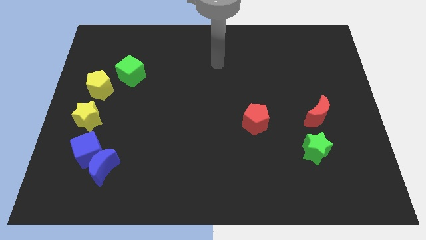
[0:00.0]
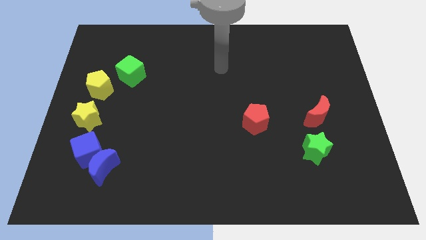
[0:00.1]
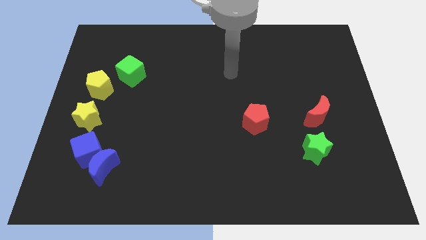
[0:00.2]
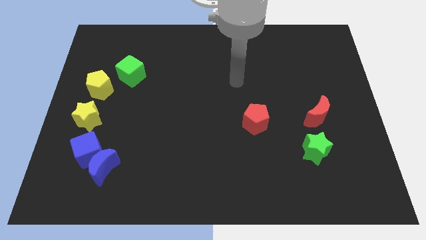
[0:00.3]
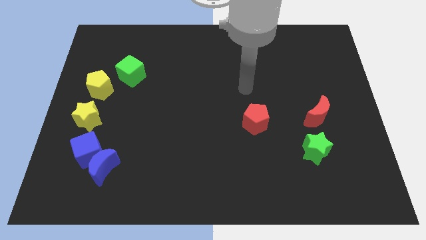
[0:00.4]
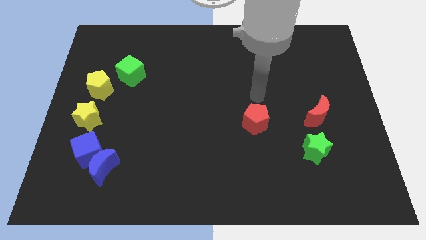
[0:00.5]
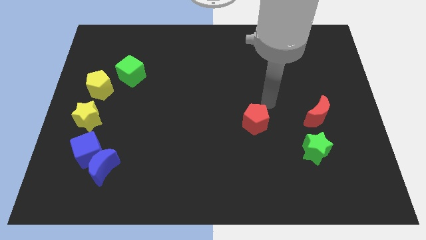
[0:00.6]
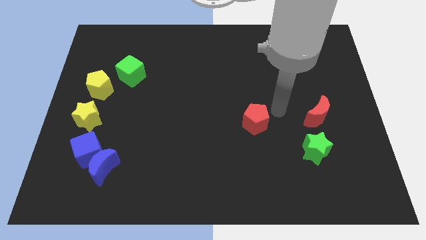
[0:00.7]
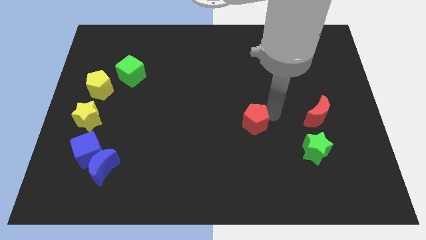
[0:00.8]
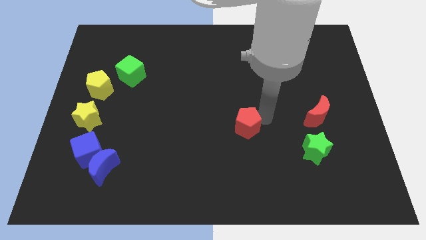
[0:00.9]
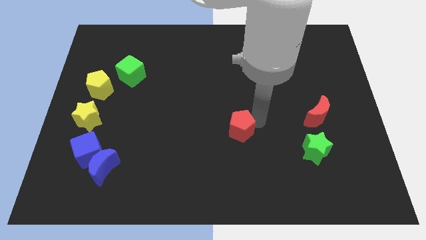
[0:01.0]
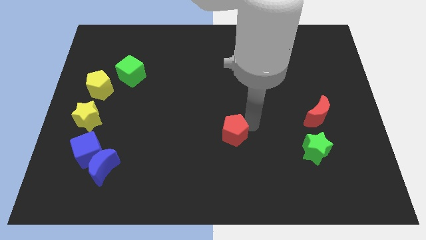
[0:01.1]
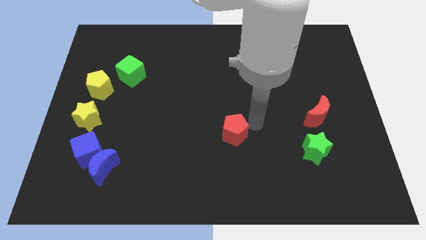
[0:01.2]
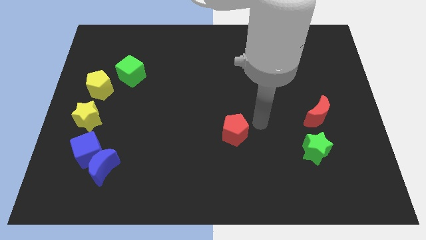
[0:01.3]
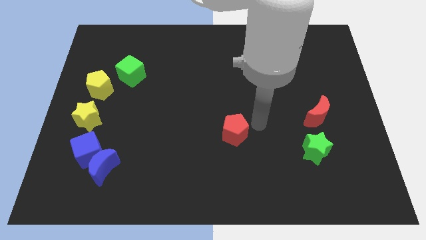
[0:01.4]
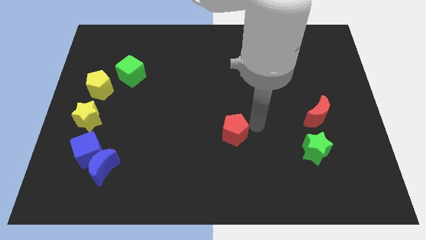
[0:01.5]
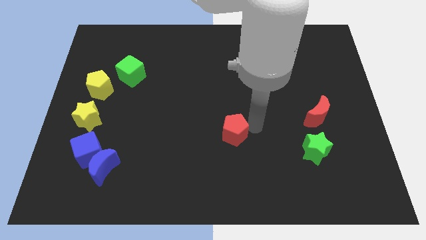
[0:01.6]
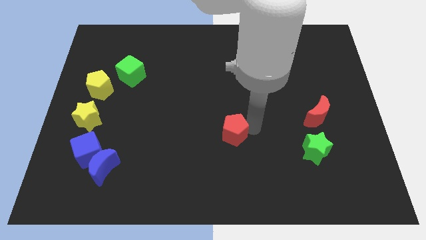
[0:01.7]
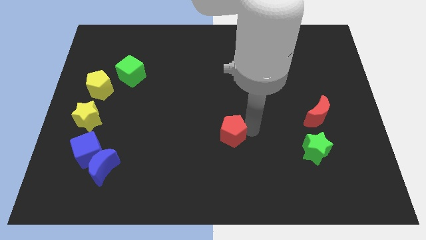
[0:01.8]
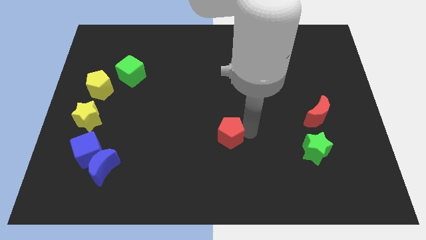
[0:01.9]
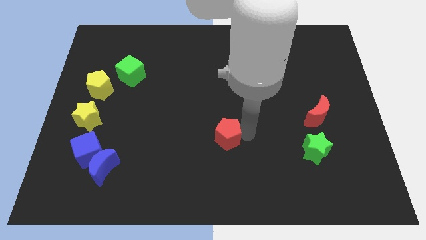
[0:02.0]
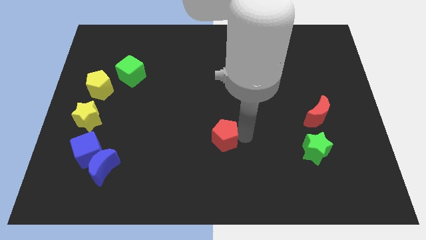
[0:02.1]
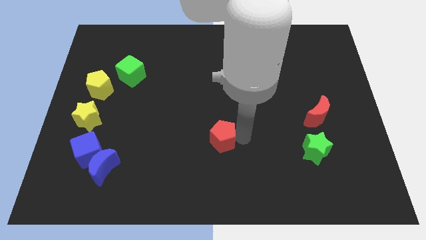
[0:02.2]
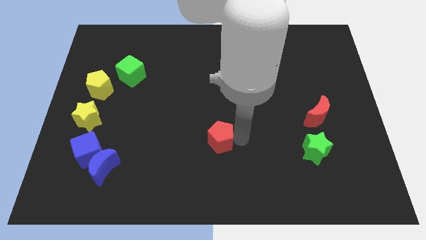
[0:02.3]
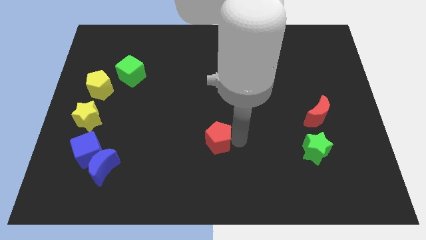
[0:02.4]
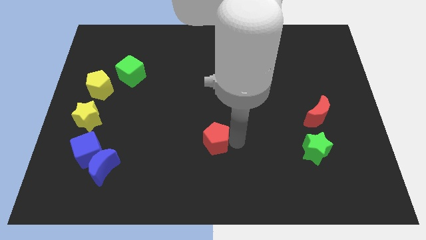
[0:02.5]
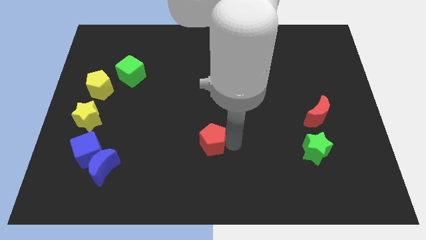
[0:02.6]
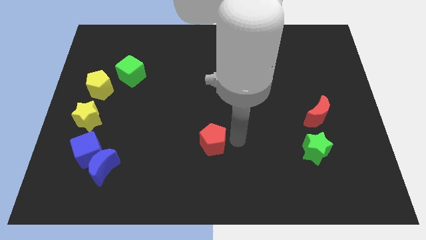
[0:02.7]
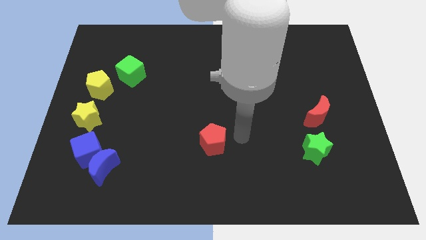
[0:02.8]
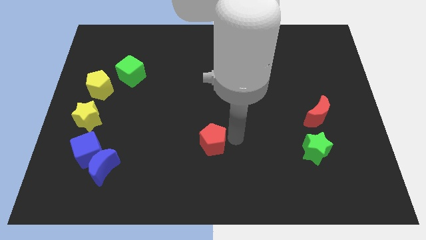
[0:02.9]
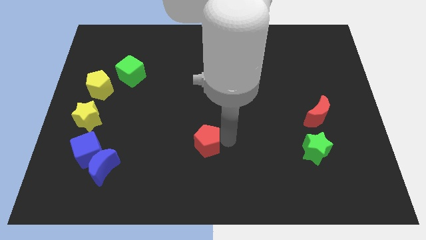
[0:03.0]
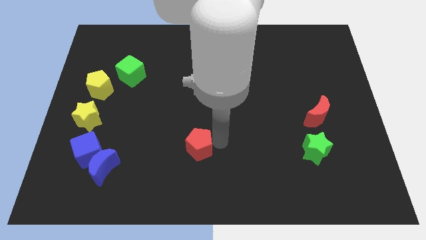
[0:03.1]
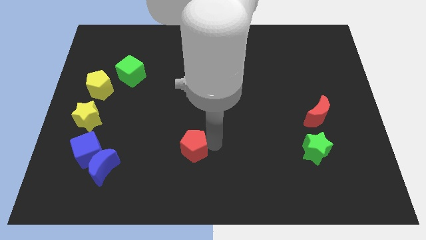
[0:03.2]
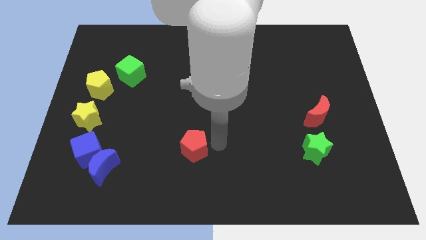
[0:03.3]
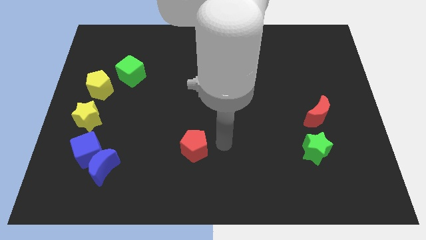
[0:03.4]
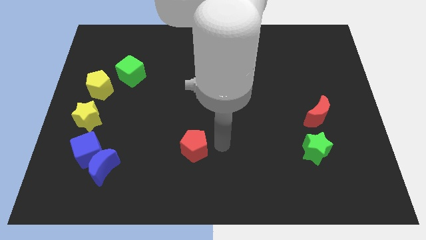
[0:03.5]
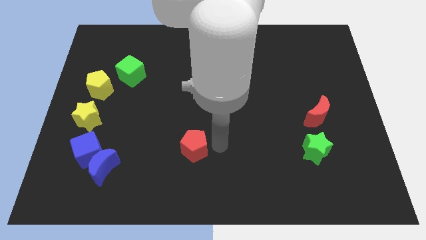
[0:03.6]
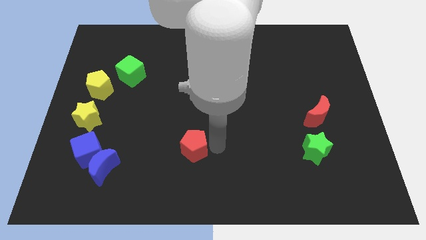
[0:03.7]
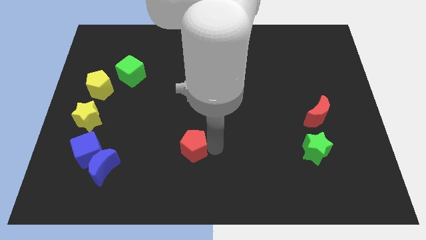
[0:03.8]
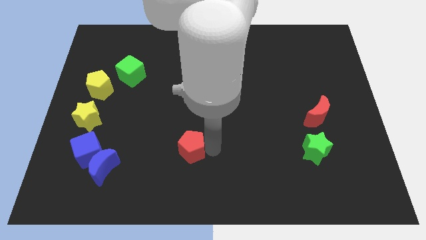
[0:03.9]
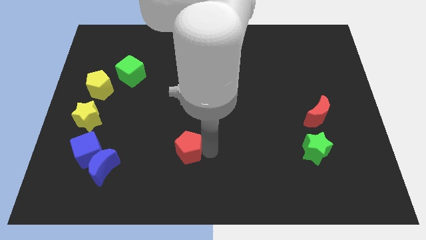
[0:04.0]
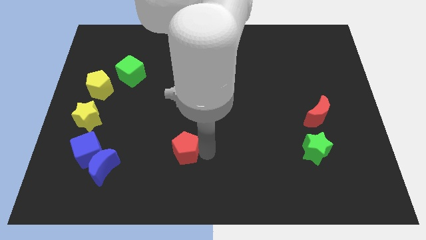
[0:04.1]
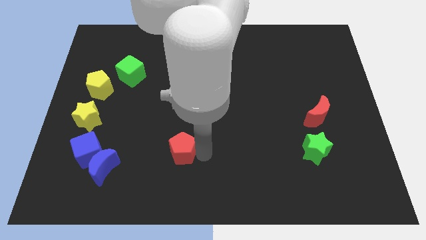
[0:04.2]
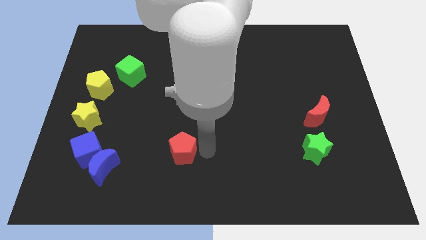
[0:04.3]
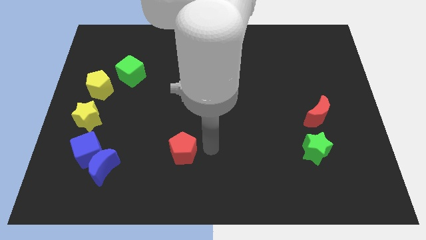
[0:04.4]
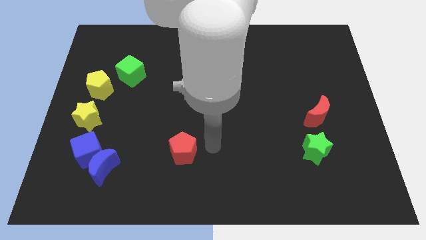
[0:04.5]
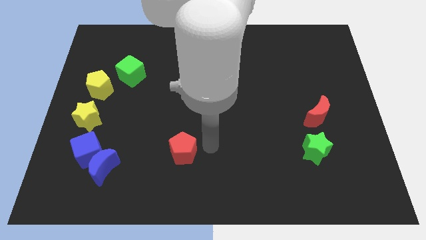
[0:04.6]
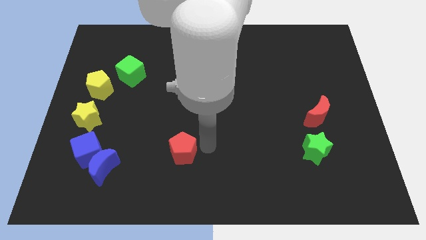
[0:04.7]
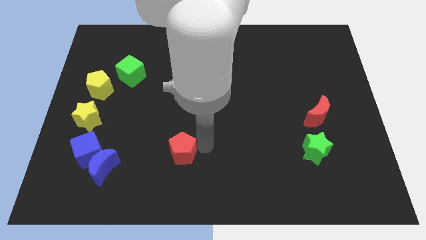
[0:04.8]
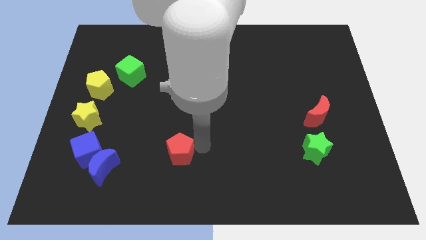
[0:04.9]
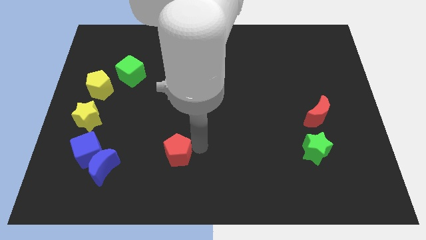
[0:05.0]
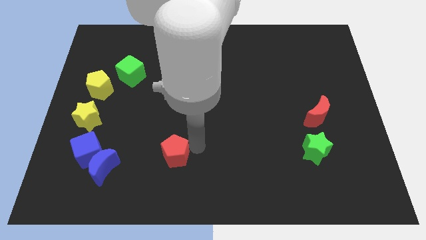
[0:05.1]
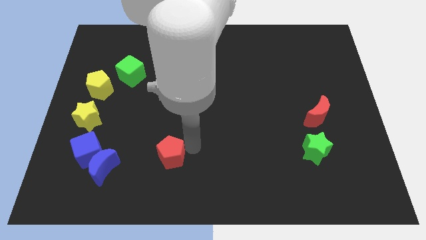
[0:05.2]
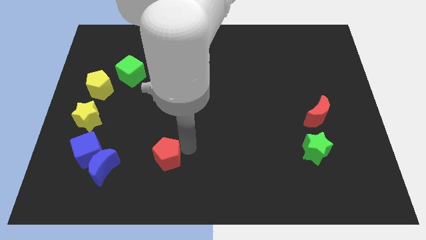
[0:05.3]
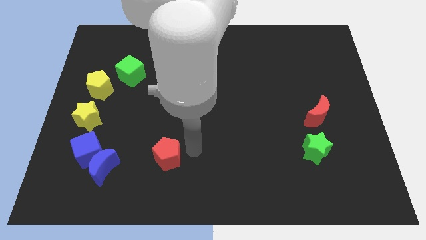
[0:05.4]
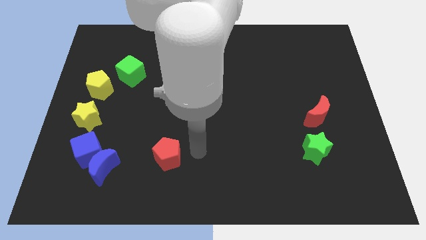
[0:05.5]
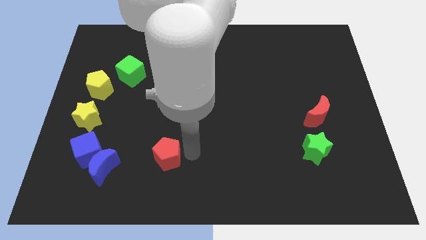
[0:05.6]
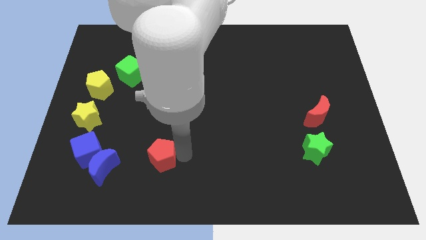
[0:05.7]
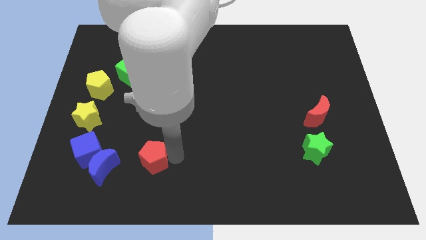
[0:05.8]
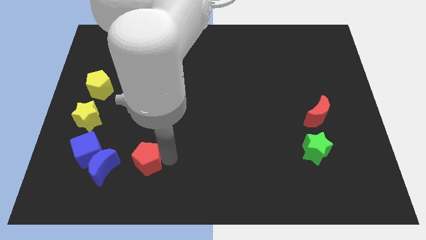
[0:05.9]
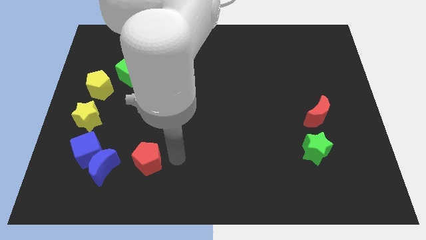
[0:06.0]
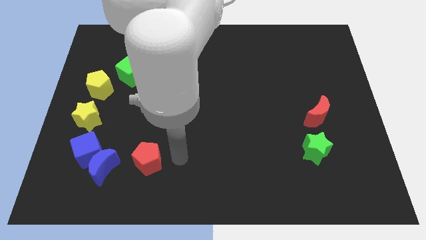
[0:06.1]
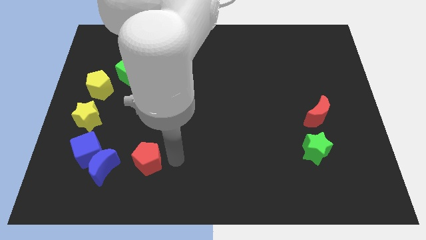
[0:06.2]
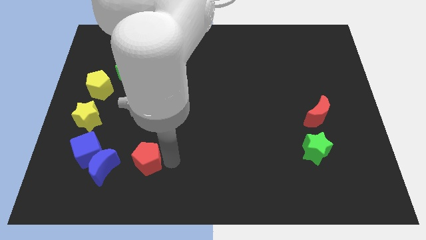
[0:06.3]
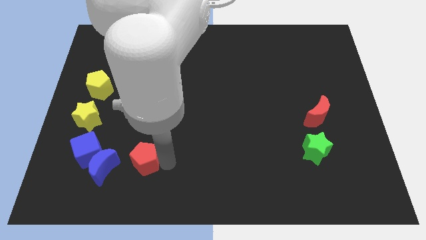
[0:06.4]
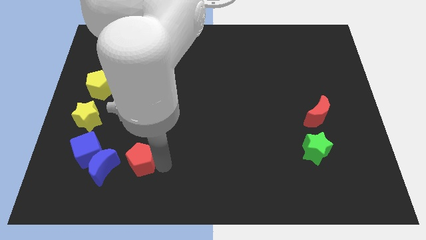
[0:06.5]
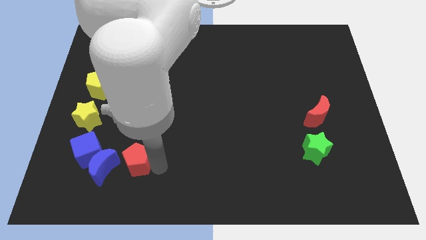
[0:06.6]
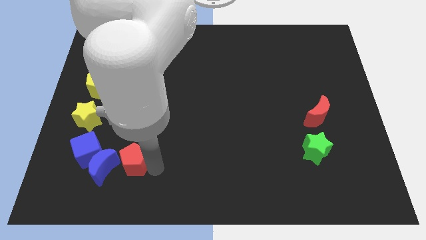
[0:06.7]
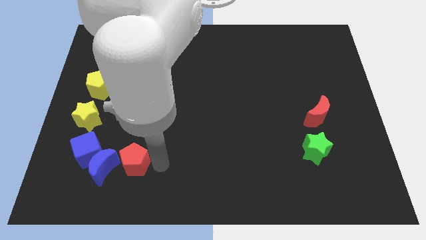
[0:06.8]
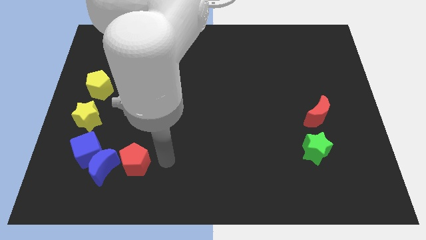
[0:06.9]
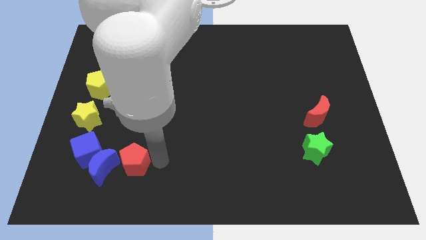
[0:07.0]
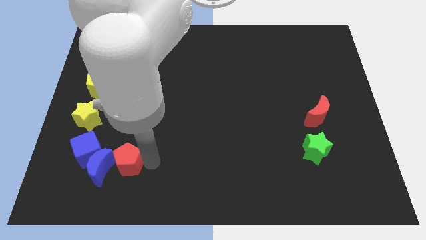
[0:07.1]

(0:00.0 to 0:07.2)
put the red pentagon towards the blue moon
